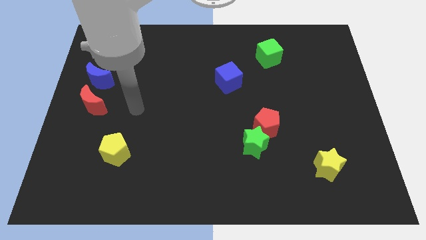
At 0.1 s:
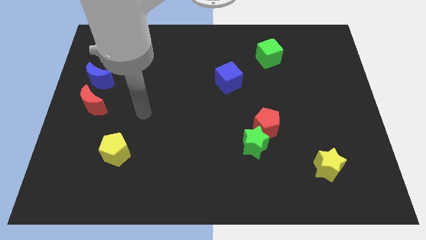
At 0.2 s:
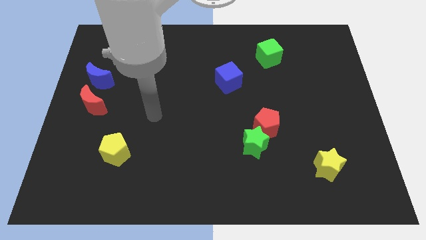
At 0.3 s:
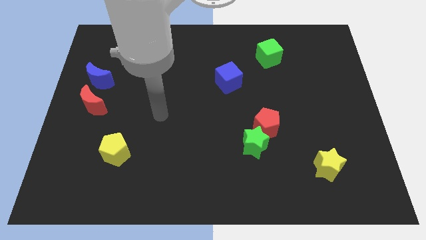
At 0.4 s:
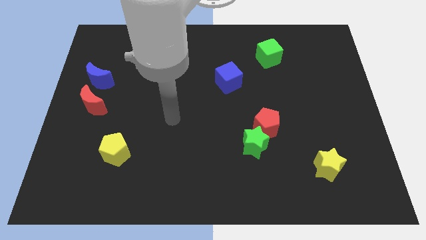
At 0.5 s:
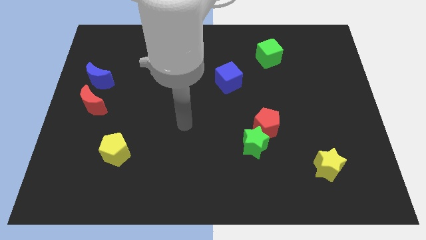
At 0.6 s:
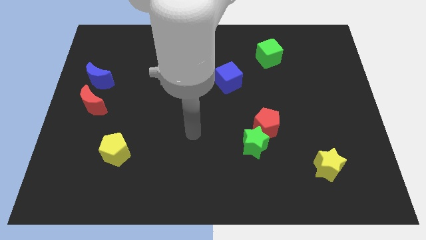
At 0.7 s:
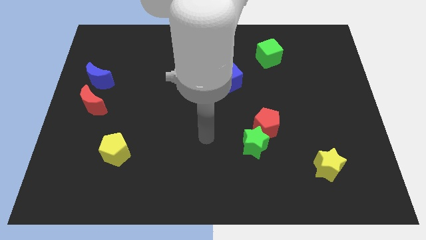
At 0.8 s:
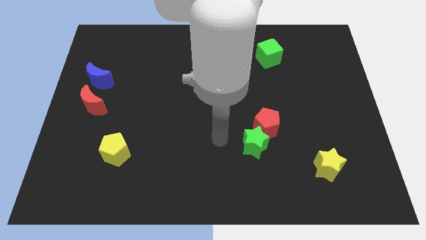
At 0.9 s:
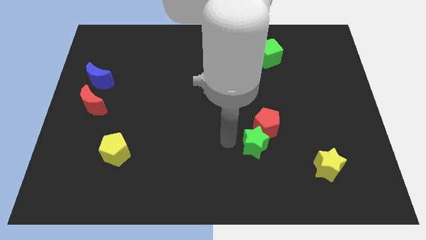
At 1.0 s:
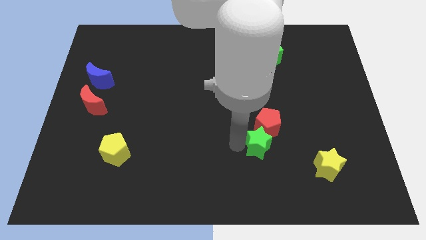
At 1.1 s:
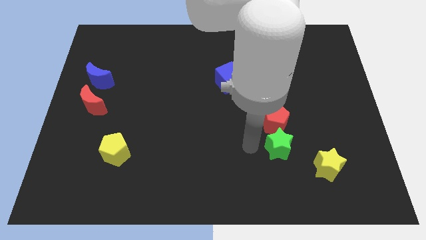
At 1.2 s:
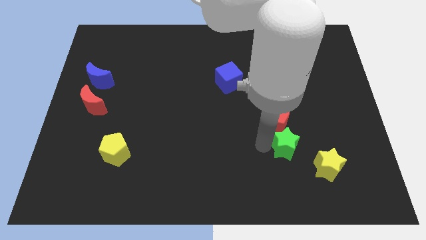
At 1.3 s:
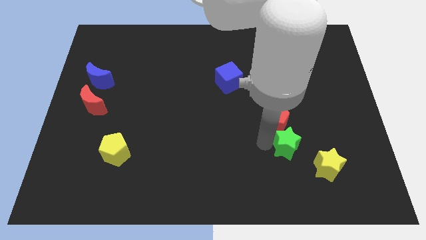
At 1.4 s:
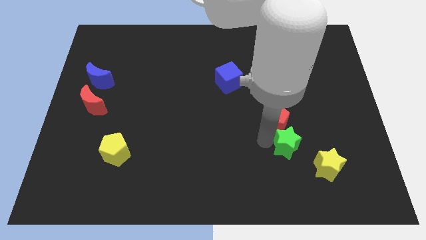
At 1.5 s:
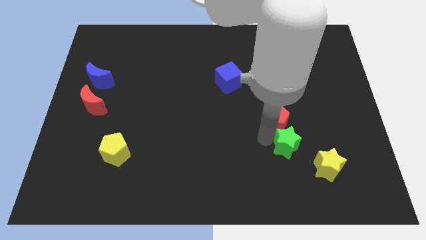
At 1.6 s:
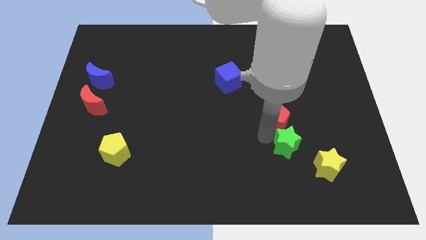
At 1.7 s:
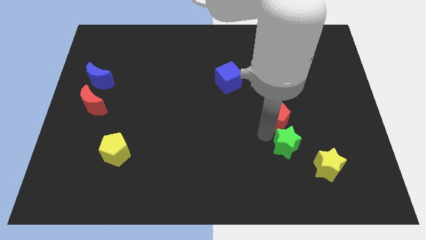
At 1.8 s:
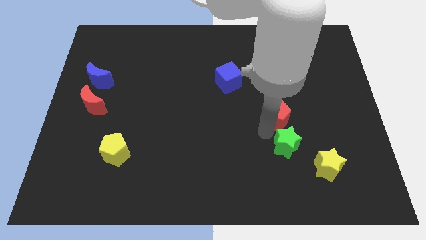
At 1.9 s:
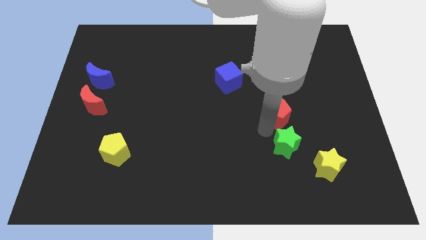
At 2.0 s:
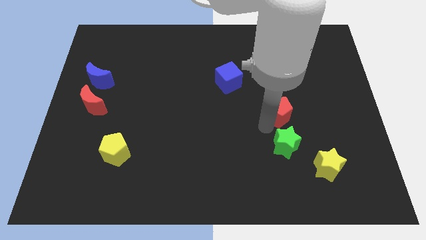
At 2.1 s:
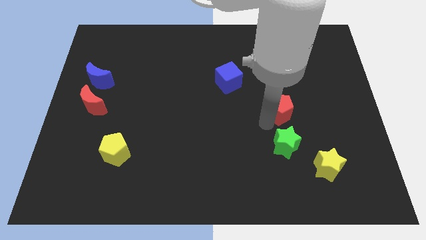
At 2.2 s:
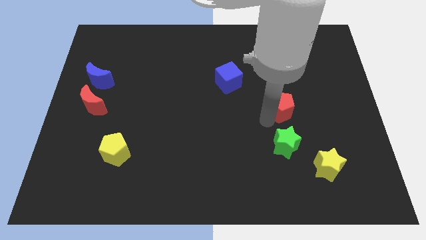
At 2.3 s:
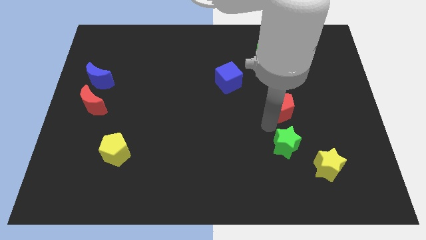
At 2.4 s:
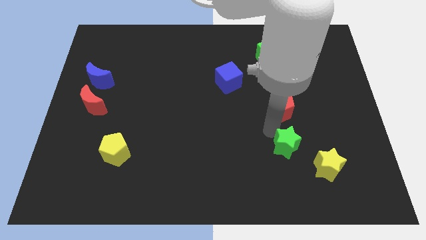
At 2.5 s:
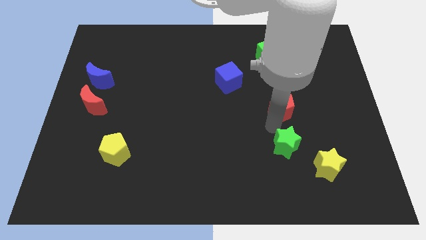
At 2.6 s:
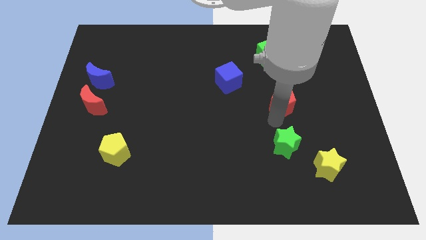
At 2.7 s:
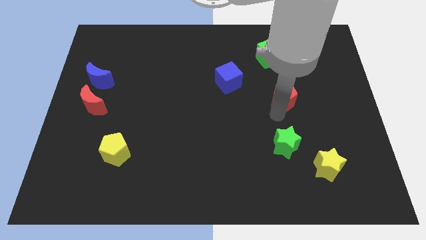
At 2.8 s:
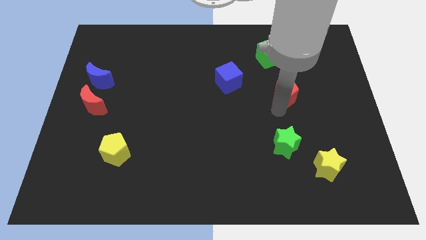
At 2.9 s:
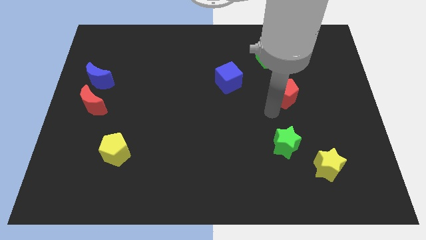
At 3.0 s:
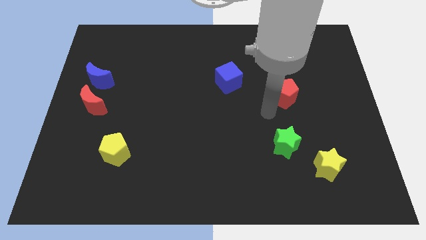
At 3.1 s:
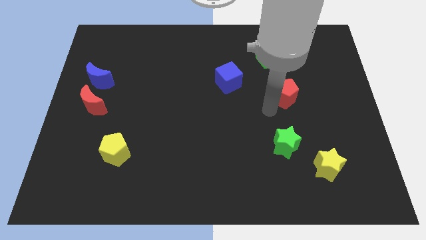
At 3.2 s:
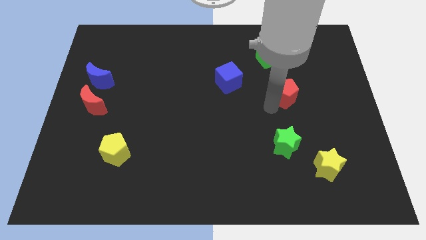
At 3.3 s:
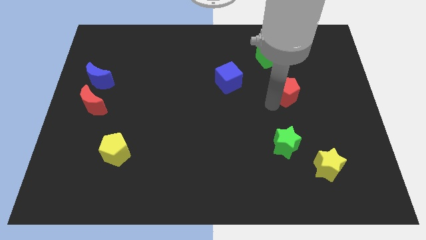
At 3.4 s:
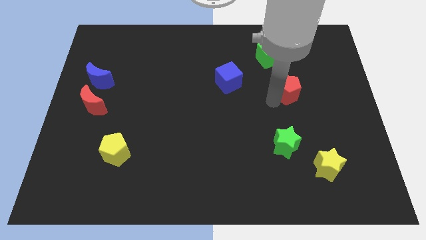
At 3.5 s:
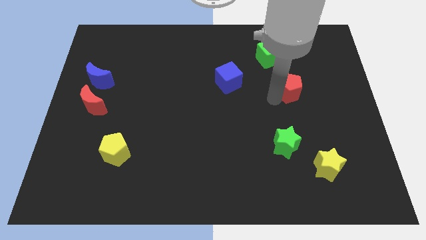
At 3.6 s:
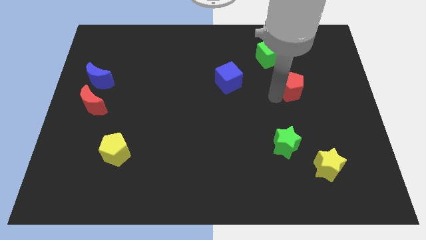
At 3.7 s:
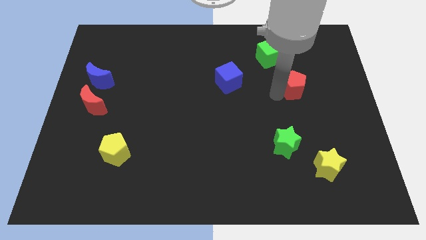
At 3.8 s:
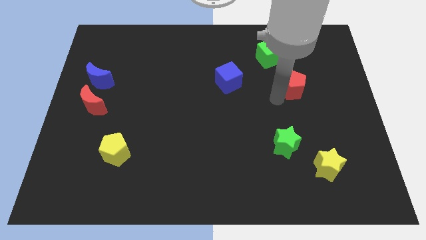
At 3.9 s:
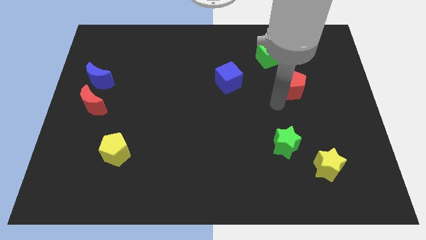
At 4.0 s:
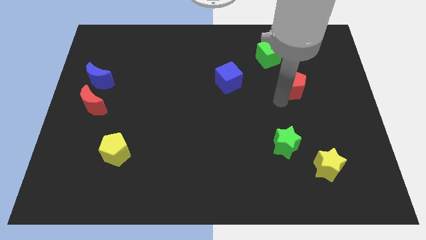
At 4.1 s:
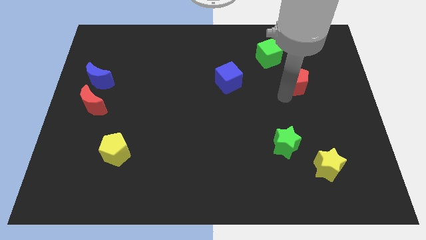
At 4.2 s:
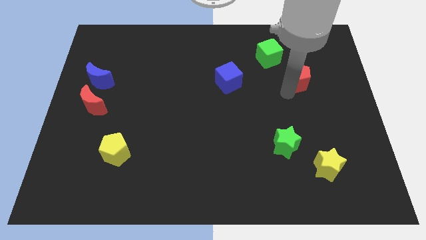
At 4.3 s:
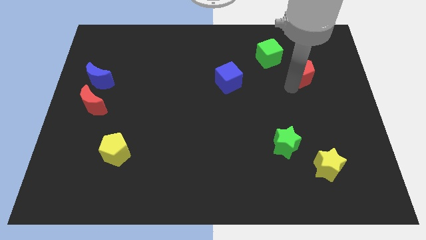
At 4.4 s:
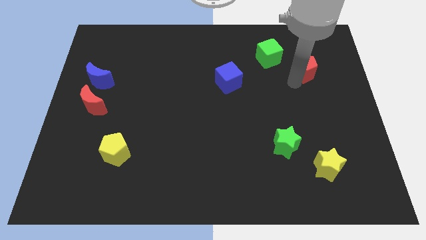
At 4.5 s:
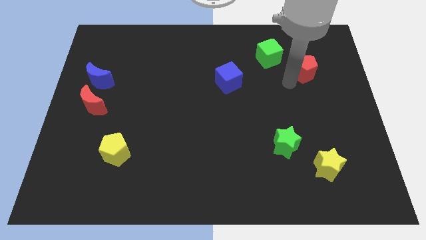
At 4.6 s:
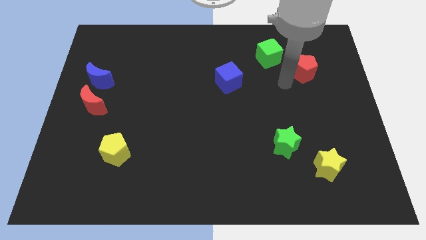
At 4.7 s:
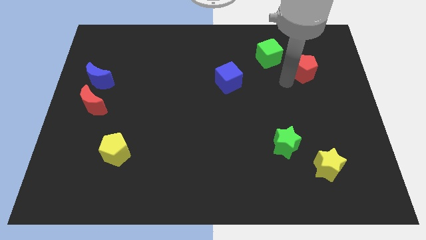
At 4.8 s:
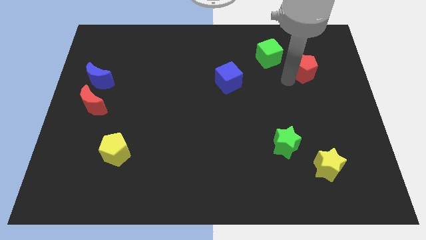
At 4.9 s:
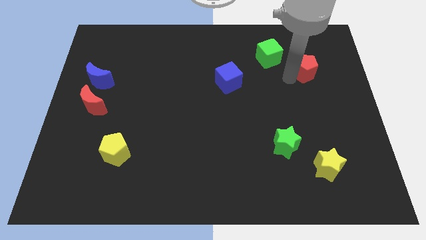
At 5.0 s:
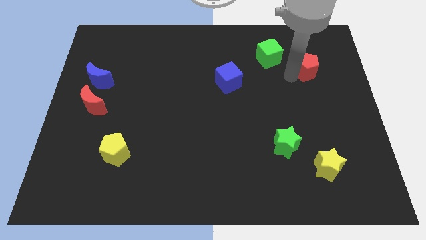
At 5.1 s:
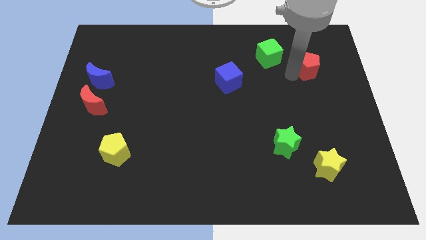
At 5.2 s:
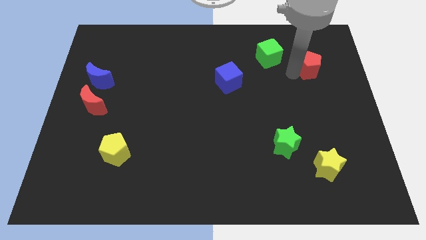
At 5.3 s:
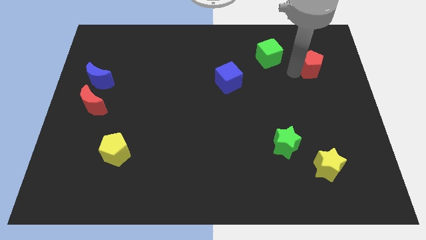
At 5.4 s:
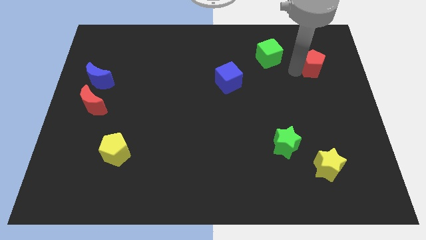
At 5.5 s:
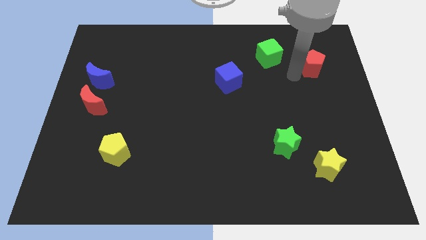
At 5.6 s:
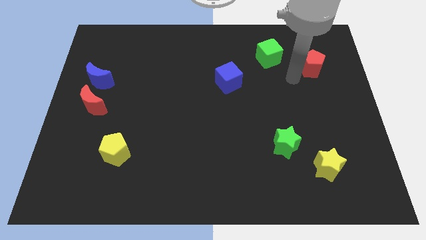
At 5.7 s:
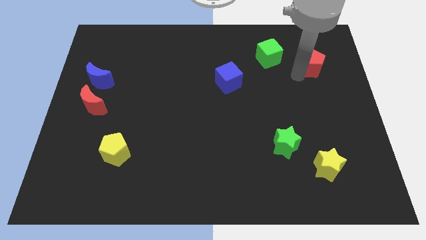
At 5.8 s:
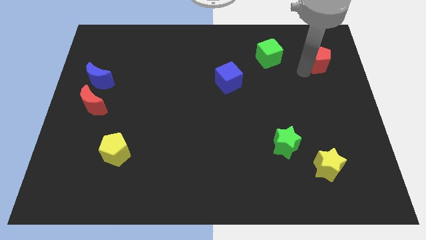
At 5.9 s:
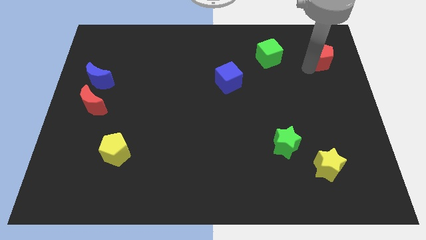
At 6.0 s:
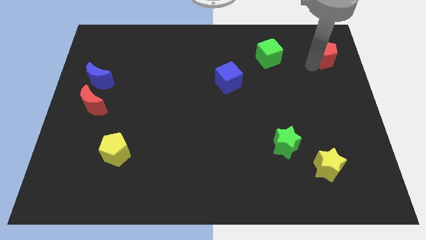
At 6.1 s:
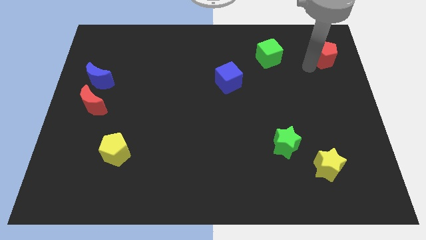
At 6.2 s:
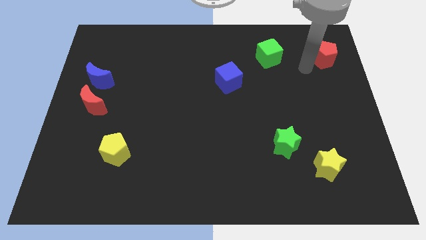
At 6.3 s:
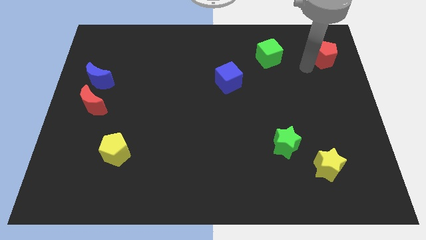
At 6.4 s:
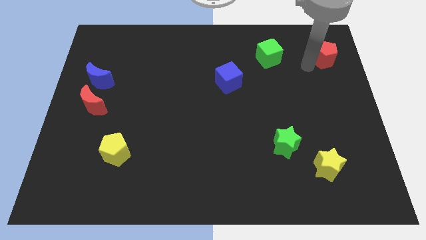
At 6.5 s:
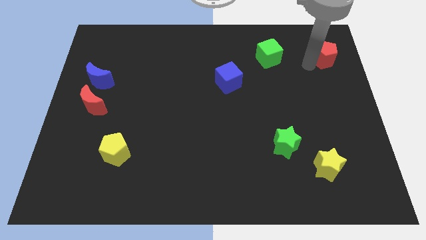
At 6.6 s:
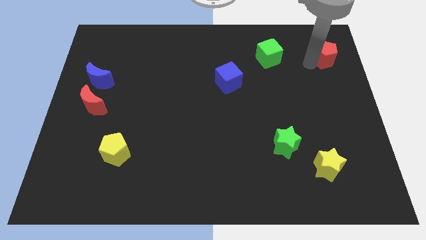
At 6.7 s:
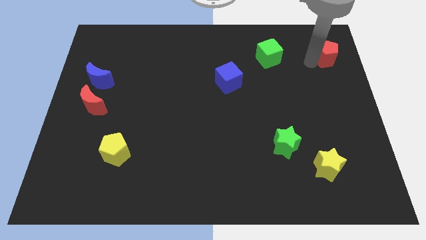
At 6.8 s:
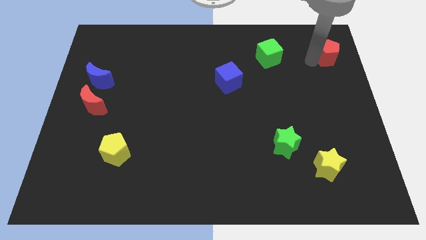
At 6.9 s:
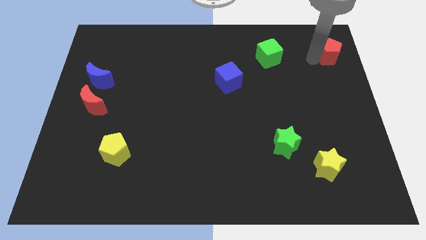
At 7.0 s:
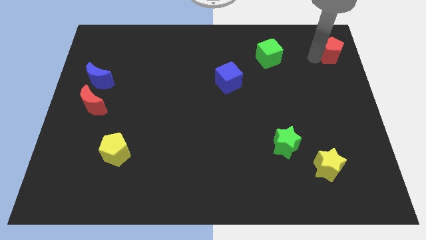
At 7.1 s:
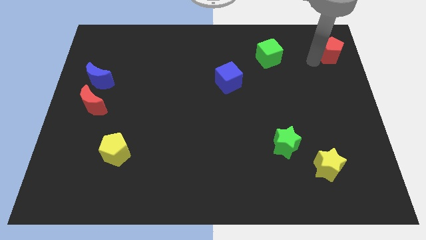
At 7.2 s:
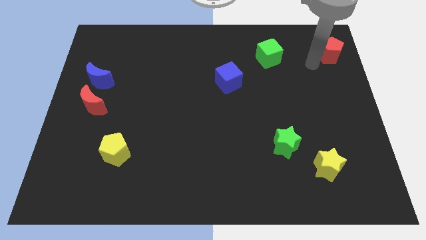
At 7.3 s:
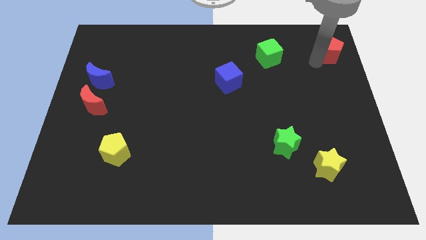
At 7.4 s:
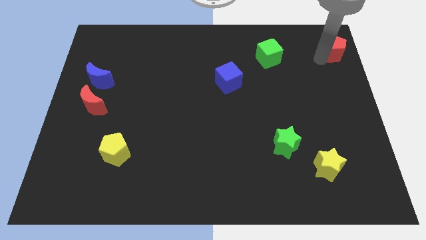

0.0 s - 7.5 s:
slide the red pentagon to the top right
